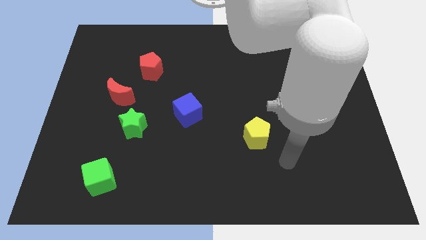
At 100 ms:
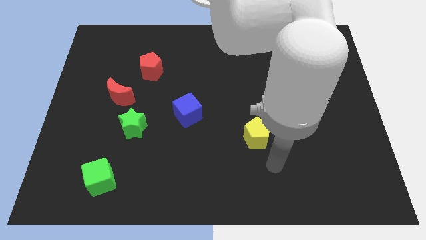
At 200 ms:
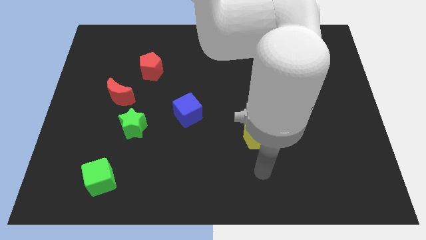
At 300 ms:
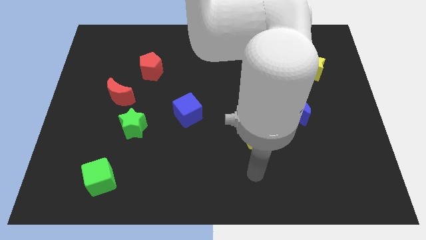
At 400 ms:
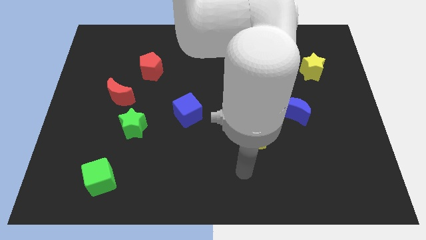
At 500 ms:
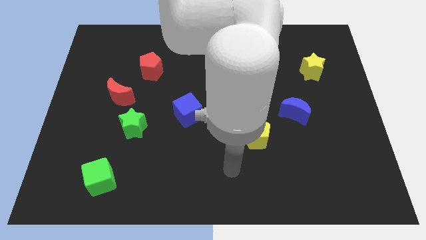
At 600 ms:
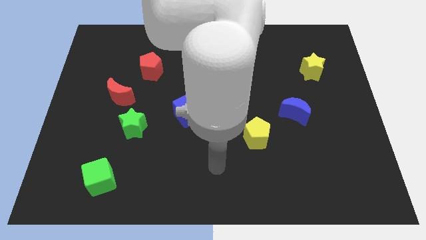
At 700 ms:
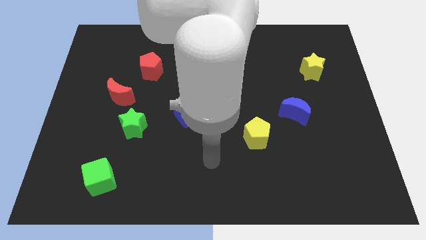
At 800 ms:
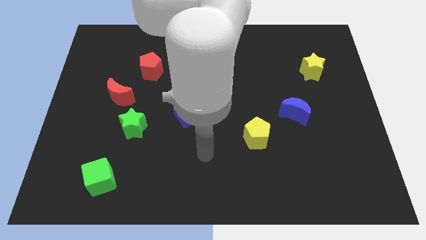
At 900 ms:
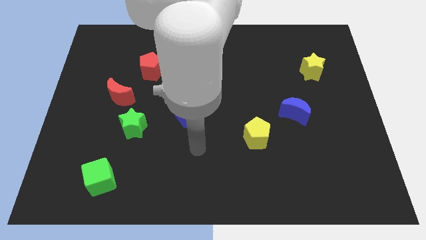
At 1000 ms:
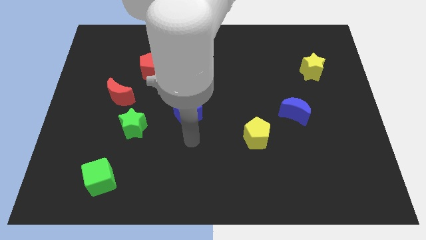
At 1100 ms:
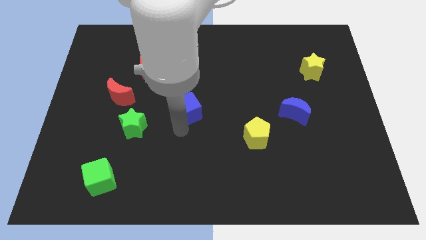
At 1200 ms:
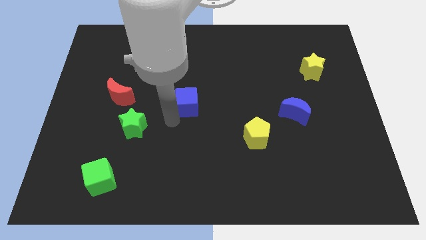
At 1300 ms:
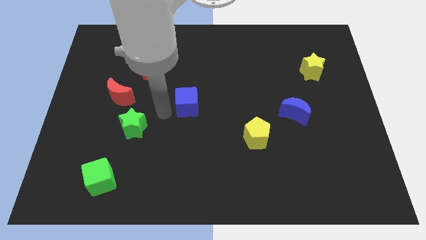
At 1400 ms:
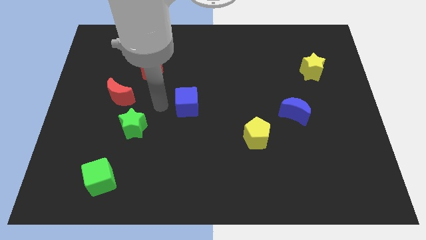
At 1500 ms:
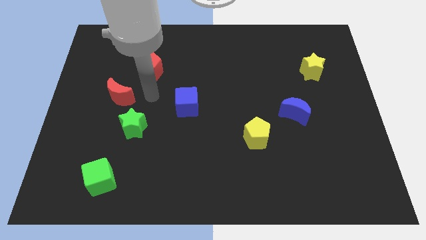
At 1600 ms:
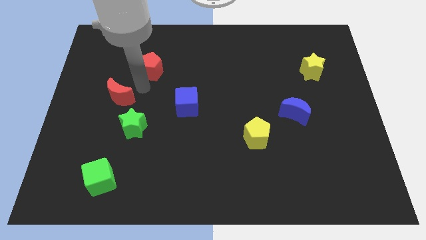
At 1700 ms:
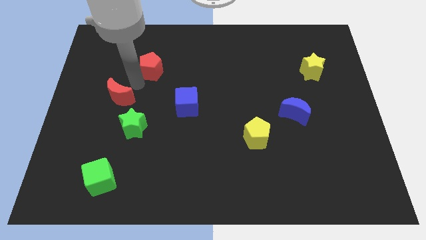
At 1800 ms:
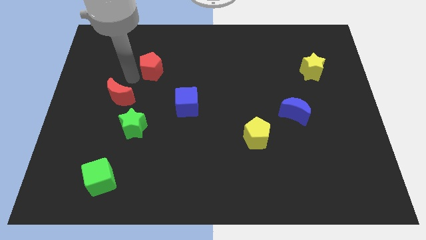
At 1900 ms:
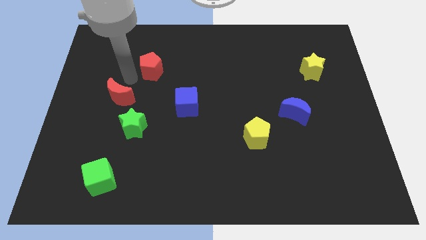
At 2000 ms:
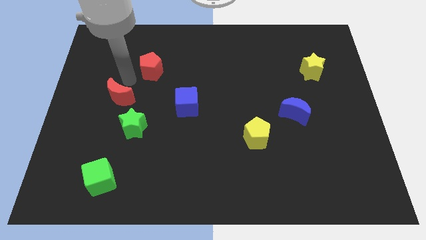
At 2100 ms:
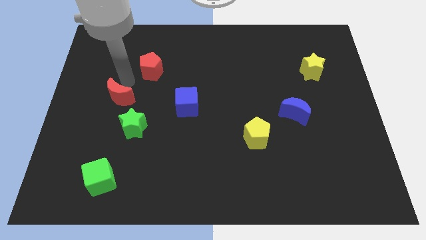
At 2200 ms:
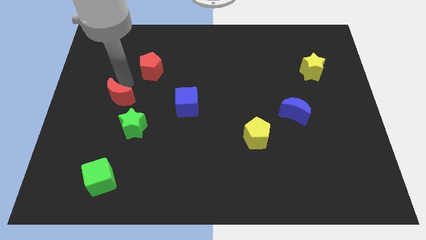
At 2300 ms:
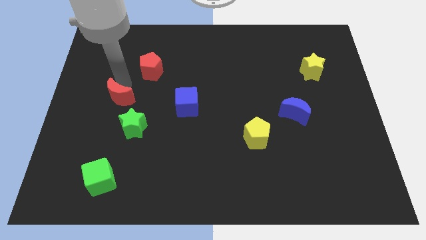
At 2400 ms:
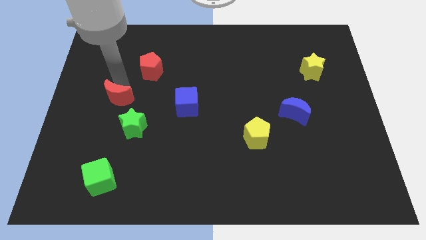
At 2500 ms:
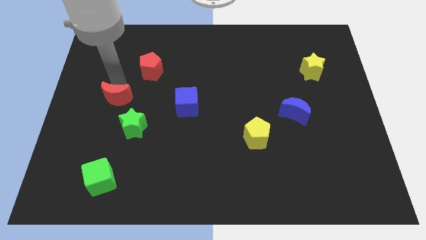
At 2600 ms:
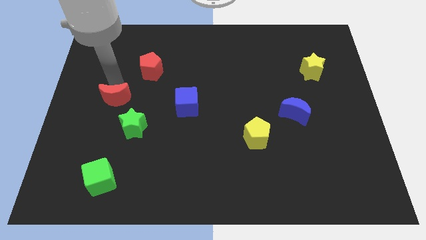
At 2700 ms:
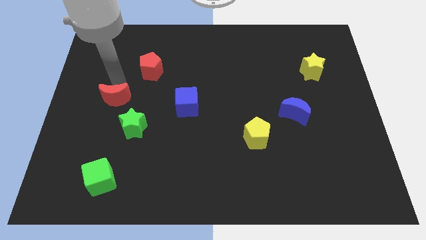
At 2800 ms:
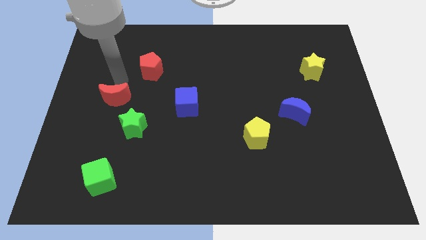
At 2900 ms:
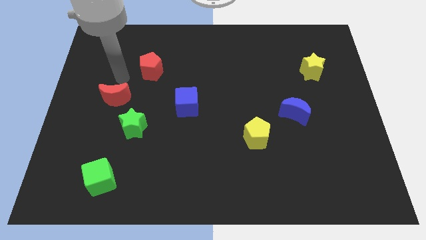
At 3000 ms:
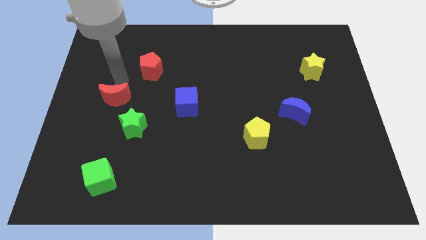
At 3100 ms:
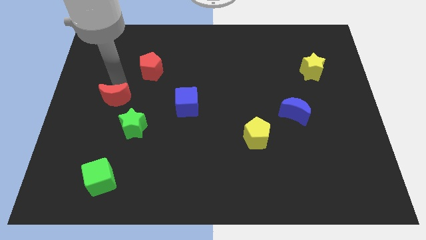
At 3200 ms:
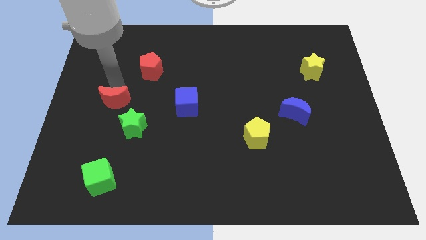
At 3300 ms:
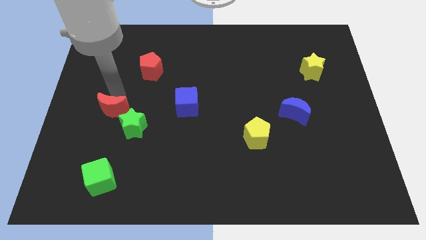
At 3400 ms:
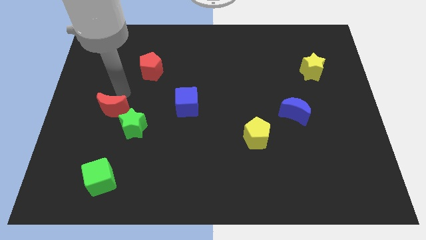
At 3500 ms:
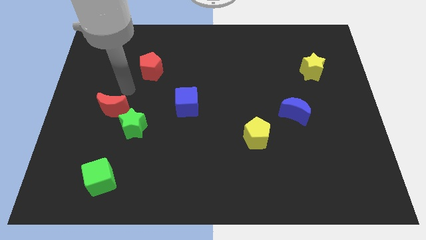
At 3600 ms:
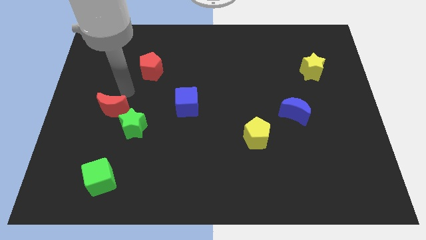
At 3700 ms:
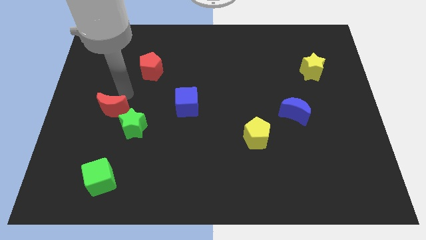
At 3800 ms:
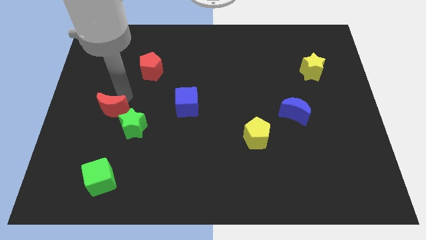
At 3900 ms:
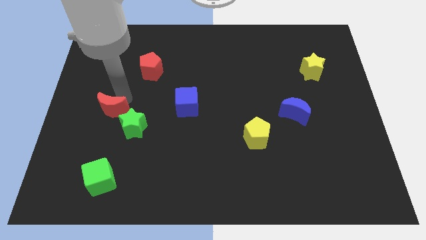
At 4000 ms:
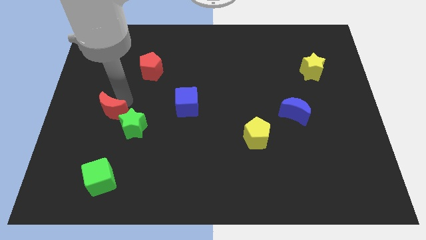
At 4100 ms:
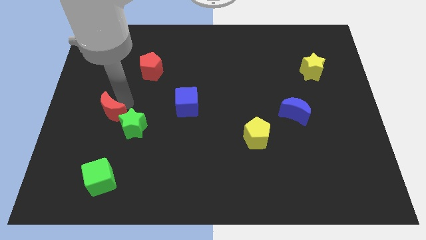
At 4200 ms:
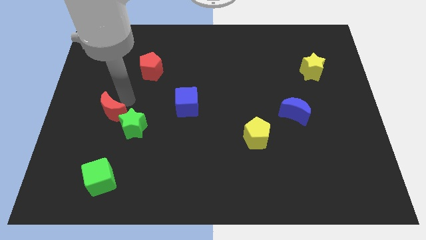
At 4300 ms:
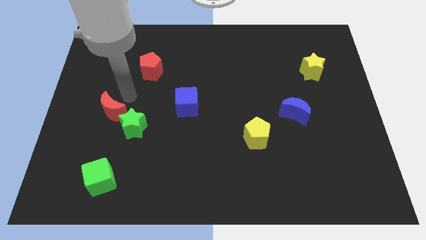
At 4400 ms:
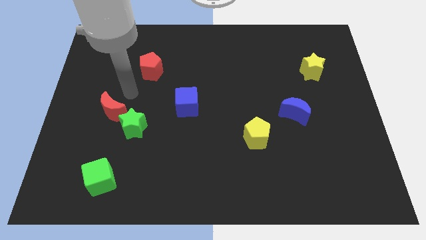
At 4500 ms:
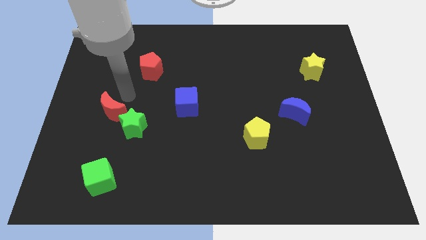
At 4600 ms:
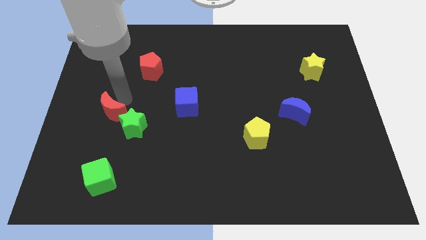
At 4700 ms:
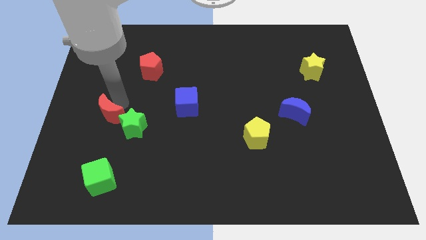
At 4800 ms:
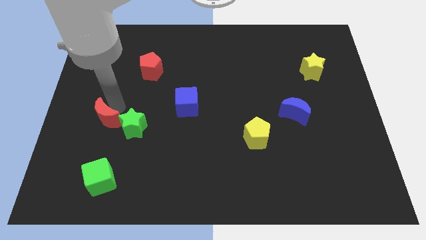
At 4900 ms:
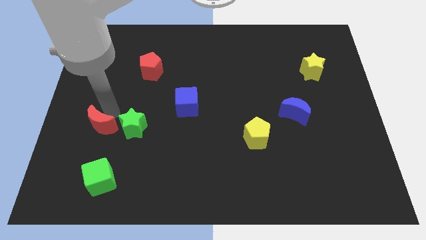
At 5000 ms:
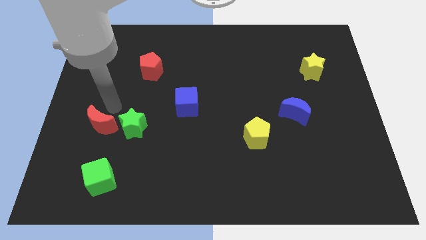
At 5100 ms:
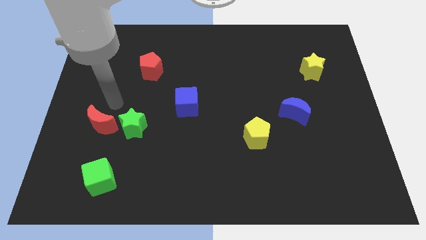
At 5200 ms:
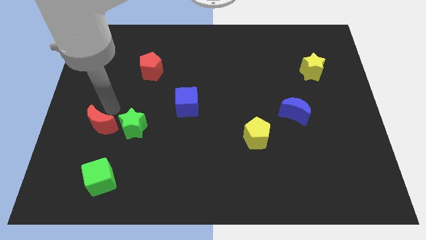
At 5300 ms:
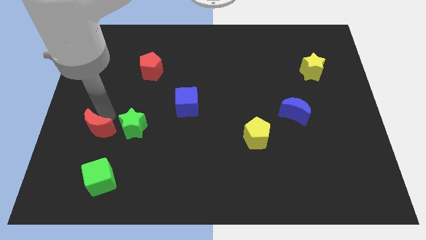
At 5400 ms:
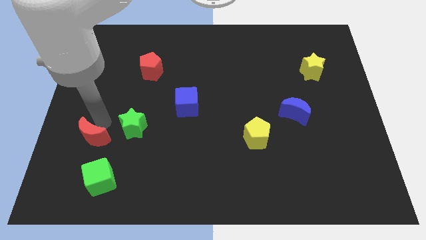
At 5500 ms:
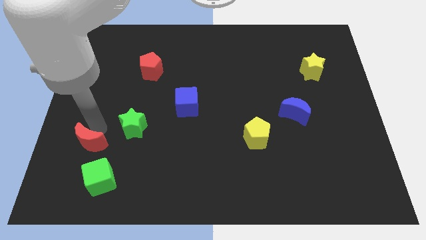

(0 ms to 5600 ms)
move the red moon to the top left side of the green cube

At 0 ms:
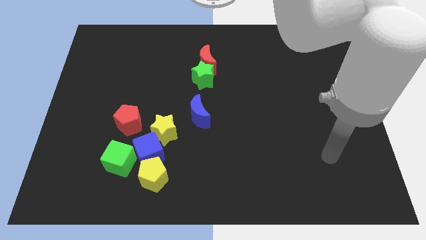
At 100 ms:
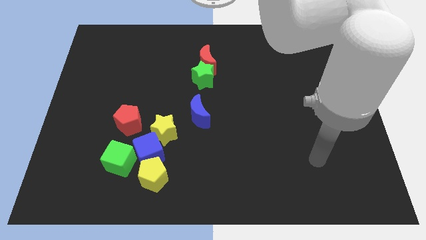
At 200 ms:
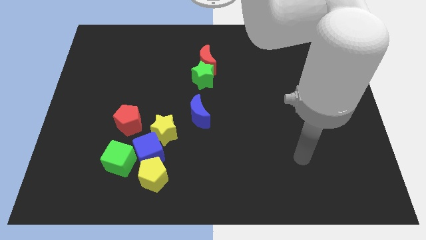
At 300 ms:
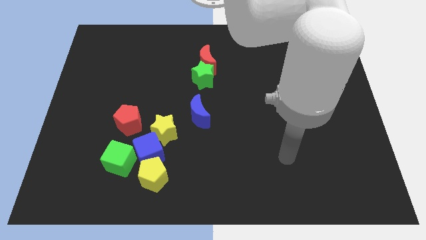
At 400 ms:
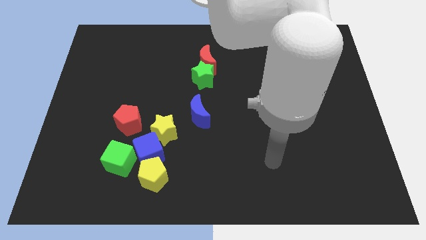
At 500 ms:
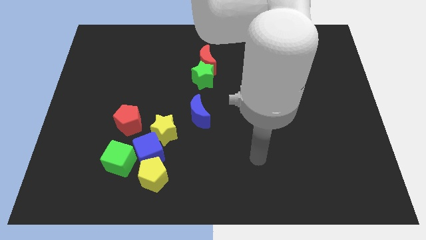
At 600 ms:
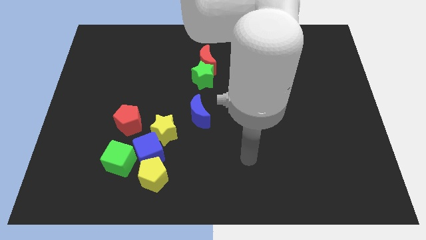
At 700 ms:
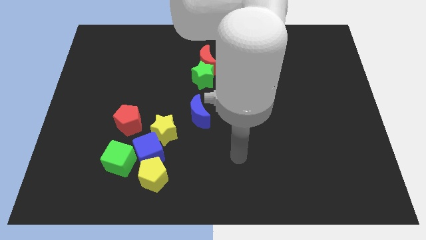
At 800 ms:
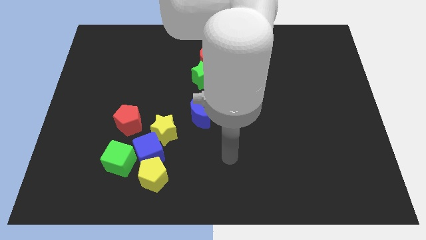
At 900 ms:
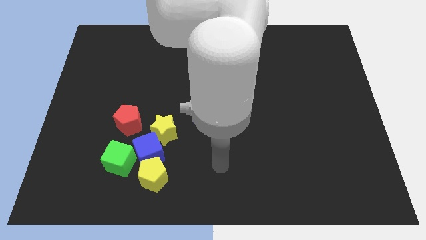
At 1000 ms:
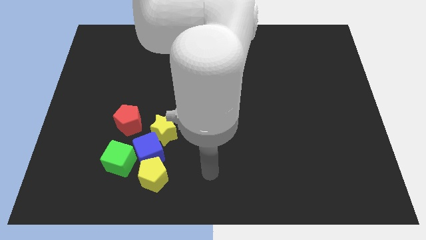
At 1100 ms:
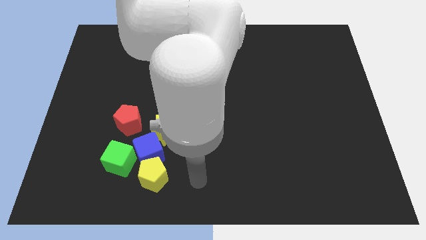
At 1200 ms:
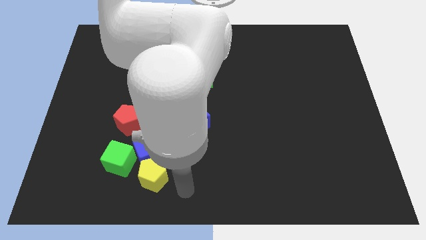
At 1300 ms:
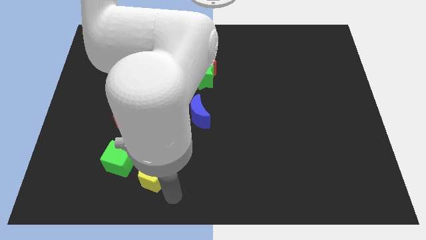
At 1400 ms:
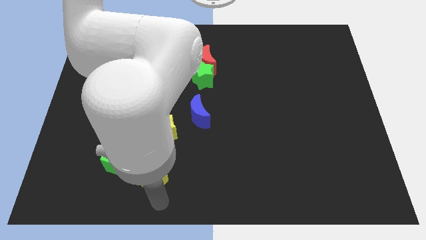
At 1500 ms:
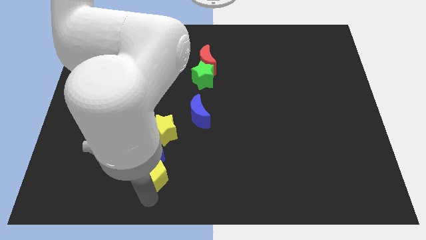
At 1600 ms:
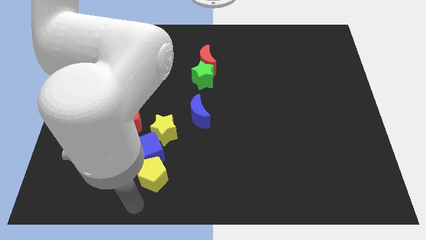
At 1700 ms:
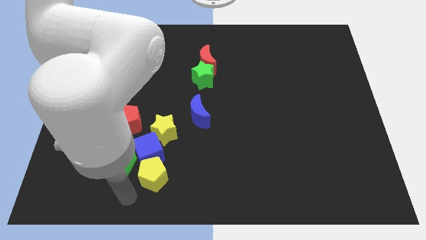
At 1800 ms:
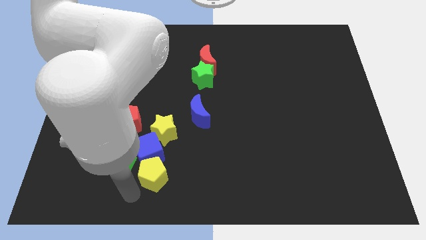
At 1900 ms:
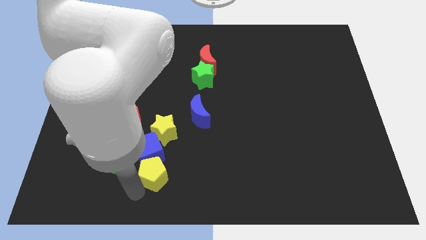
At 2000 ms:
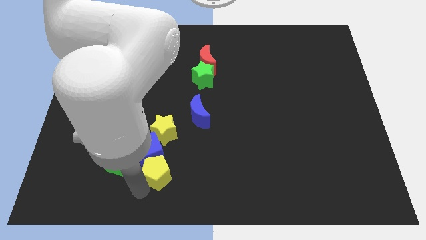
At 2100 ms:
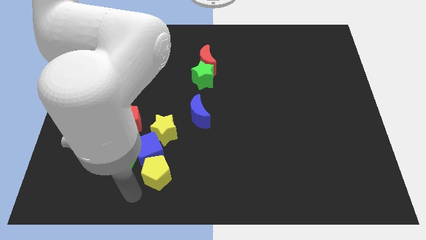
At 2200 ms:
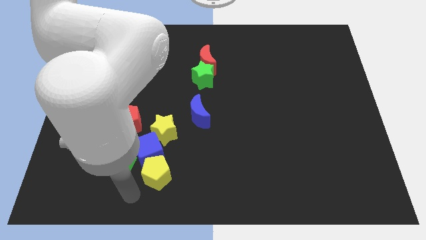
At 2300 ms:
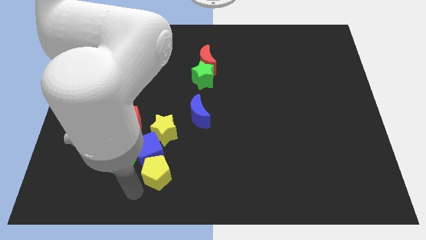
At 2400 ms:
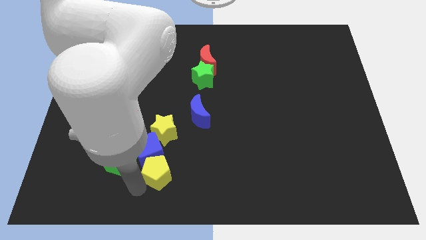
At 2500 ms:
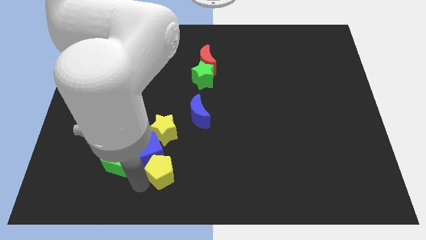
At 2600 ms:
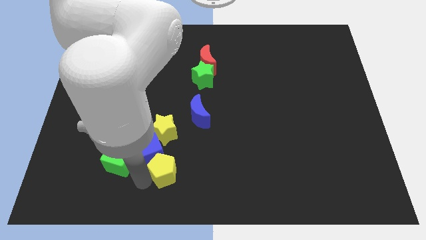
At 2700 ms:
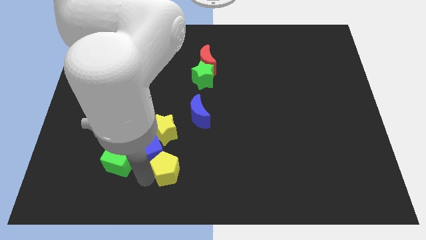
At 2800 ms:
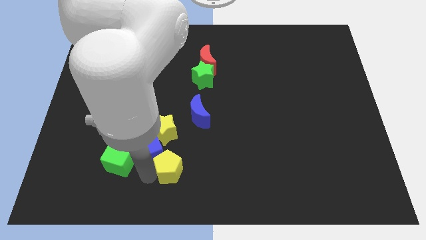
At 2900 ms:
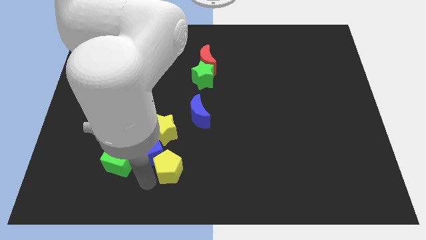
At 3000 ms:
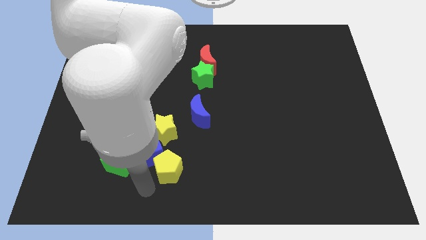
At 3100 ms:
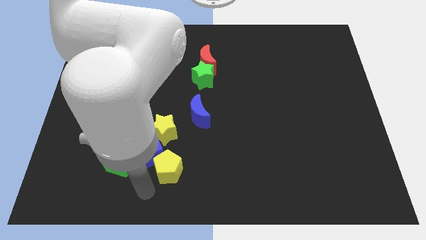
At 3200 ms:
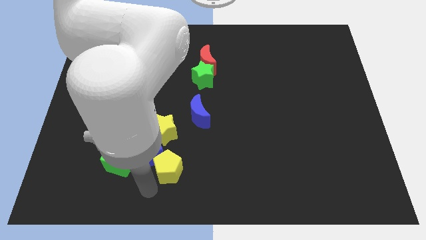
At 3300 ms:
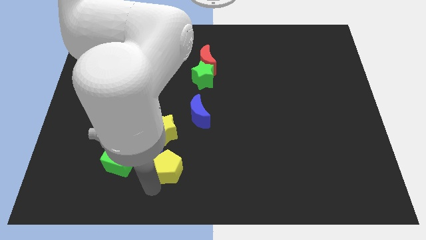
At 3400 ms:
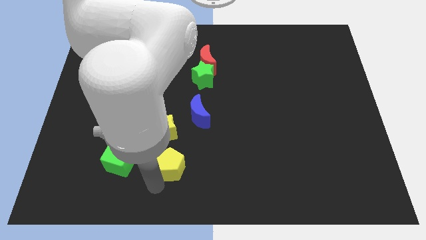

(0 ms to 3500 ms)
slide the yellow pentagon to the bottom right side of the yellow star
